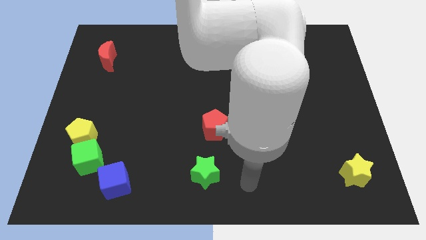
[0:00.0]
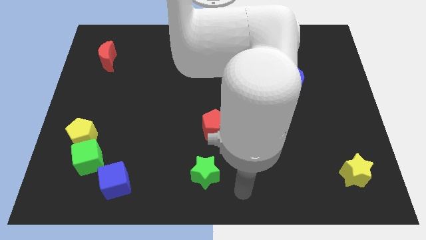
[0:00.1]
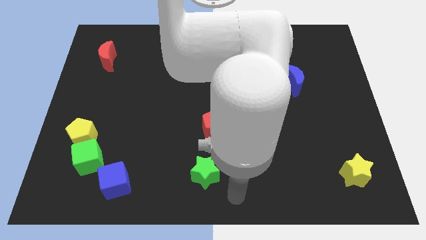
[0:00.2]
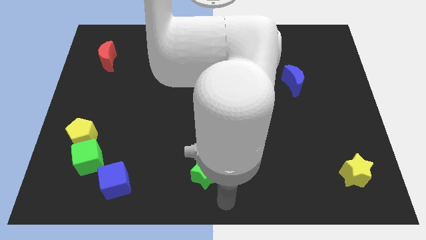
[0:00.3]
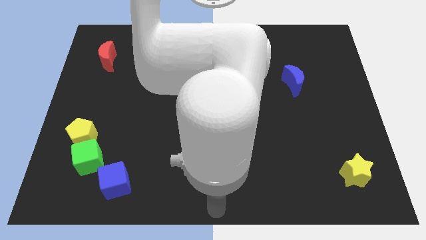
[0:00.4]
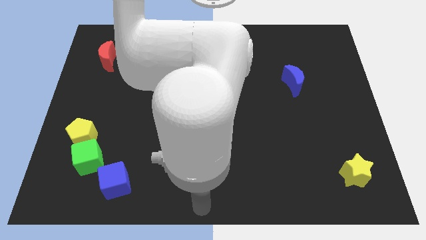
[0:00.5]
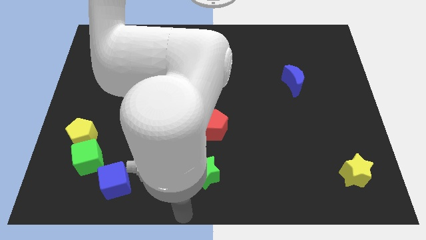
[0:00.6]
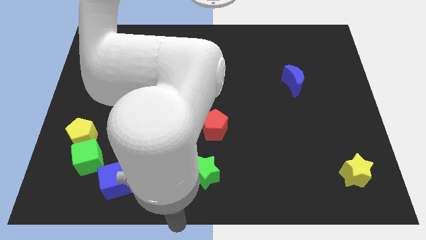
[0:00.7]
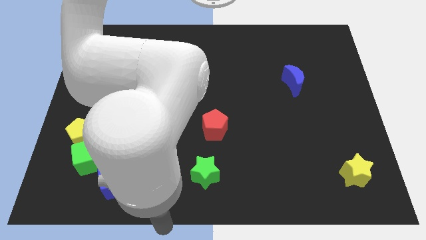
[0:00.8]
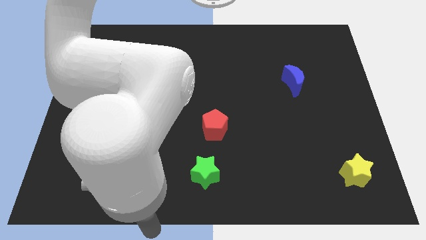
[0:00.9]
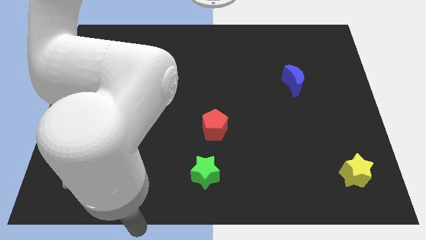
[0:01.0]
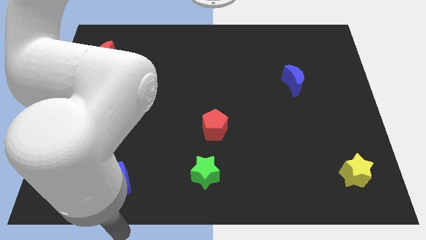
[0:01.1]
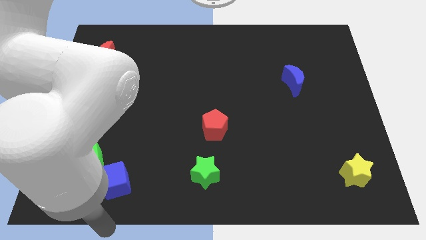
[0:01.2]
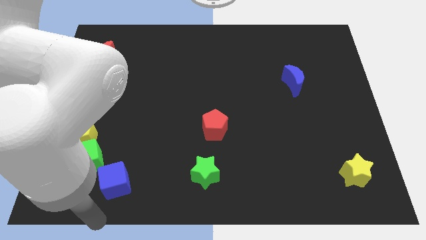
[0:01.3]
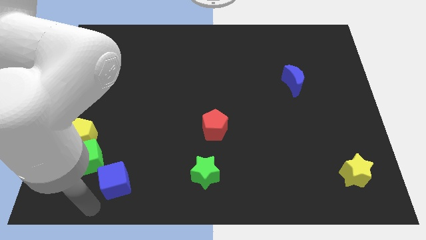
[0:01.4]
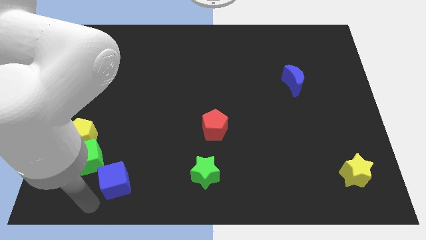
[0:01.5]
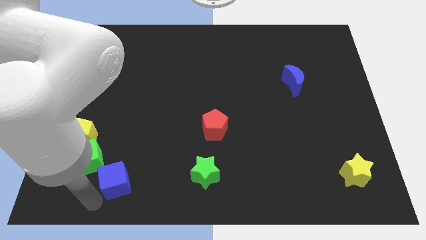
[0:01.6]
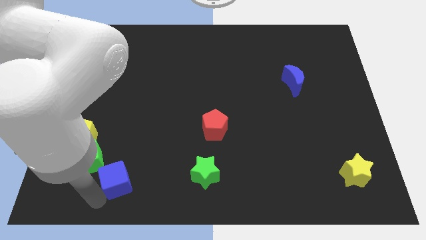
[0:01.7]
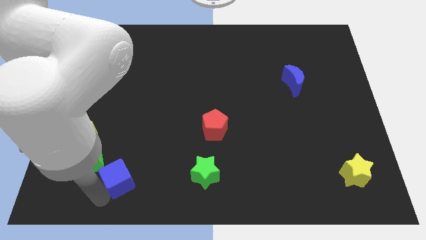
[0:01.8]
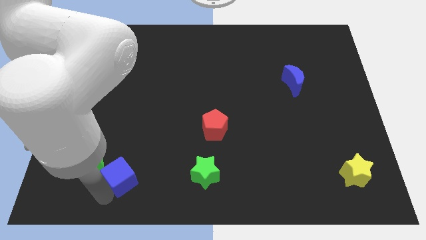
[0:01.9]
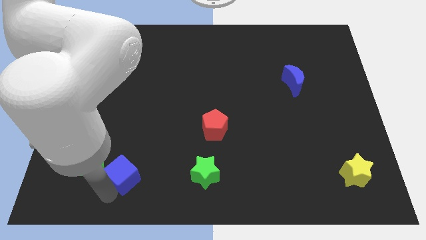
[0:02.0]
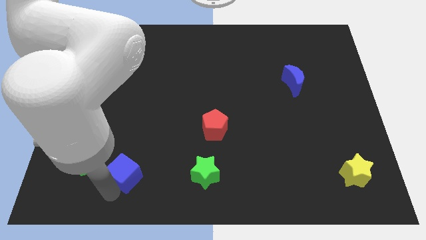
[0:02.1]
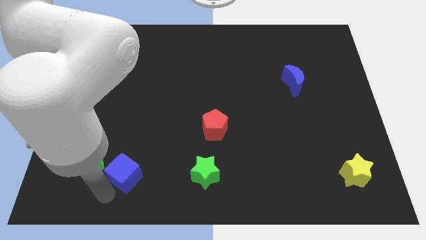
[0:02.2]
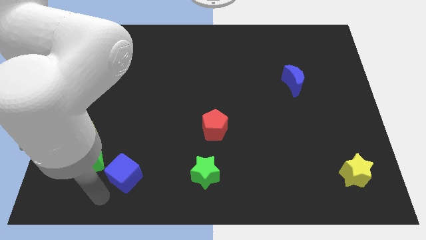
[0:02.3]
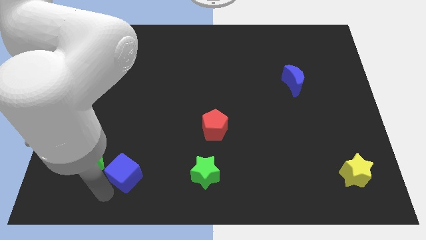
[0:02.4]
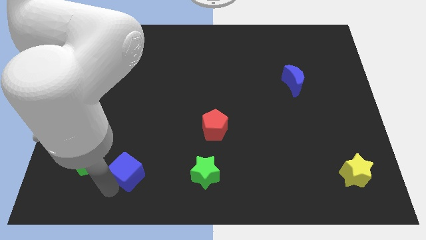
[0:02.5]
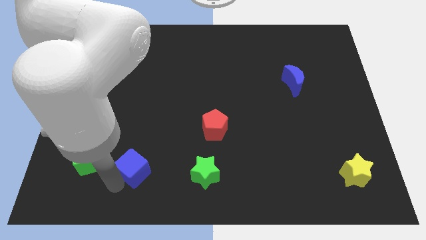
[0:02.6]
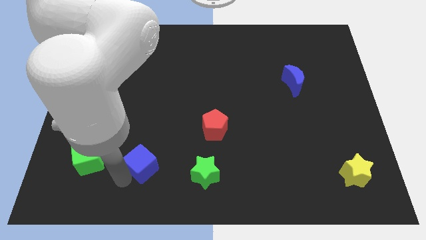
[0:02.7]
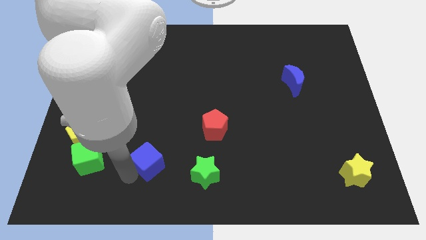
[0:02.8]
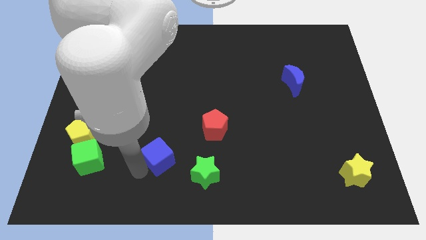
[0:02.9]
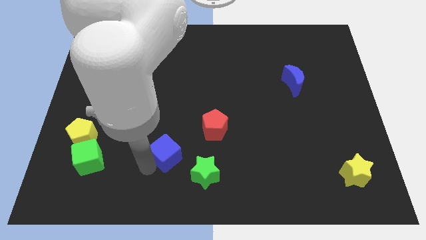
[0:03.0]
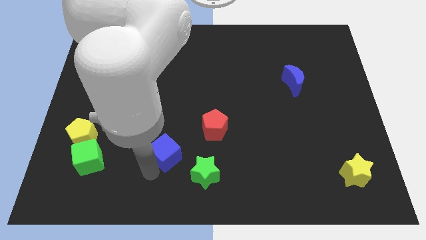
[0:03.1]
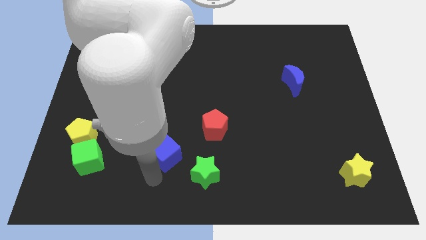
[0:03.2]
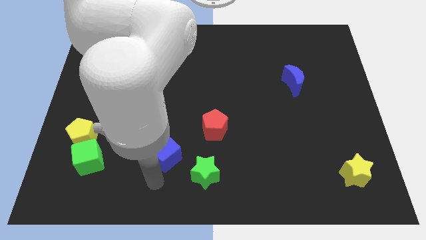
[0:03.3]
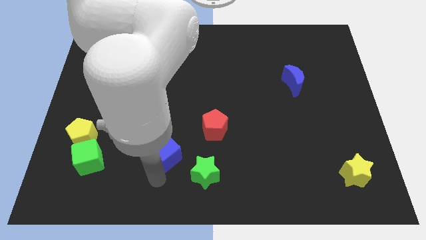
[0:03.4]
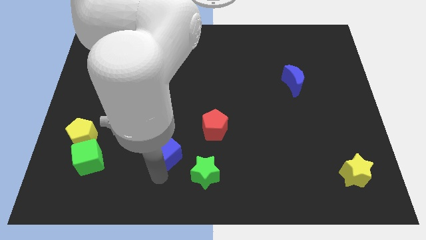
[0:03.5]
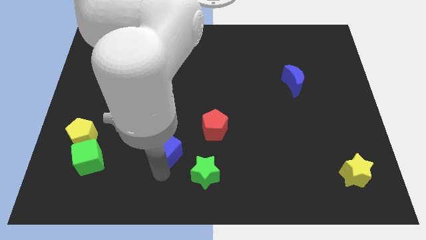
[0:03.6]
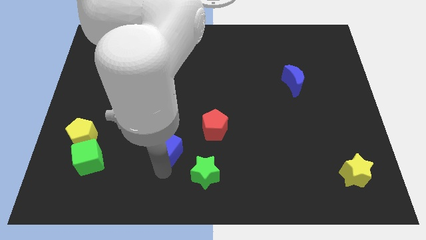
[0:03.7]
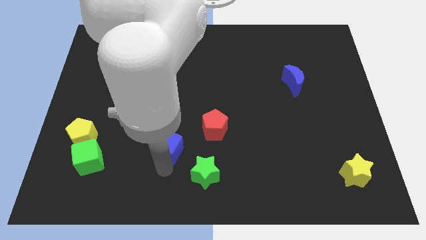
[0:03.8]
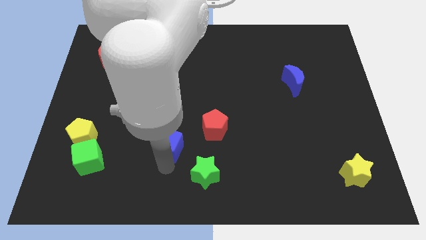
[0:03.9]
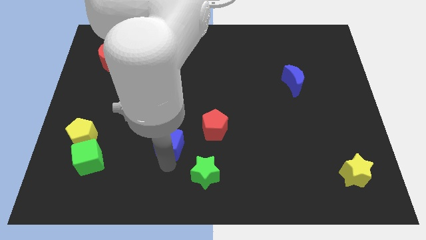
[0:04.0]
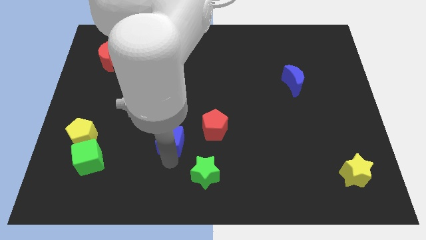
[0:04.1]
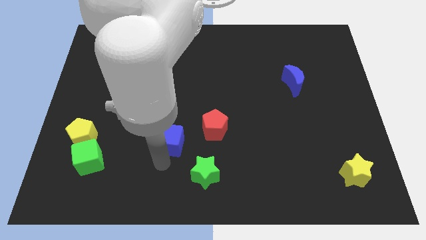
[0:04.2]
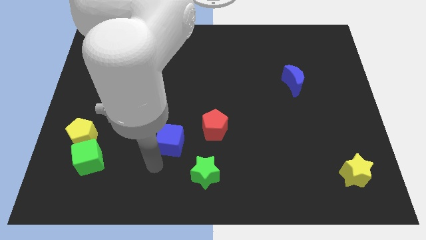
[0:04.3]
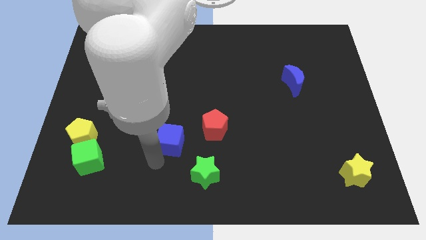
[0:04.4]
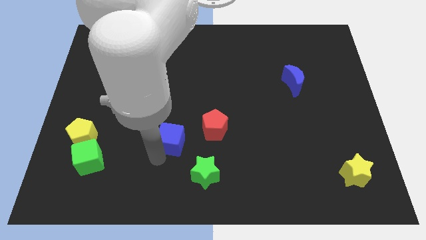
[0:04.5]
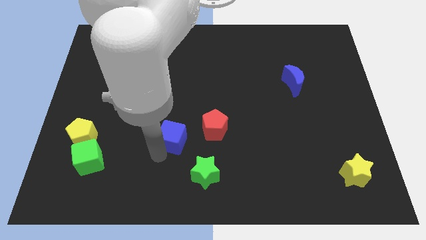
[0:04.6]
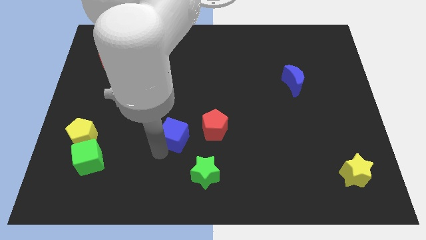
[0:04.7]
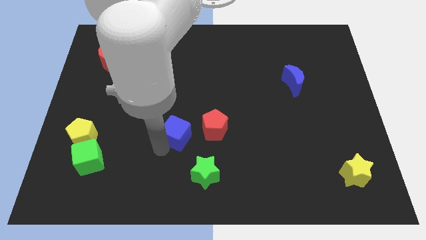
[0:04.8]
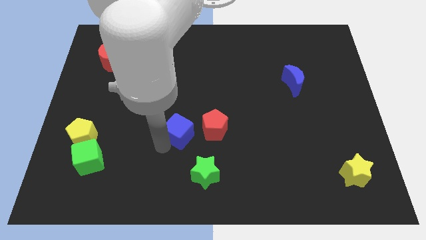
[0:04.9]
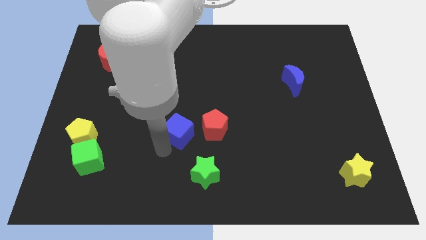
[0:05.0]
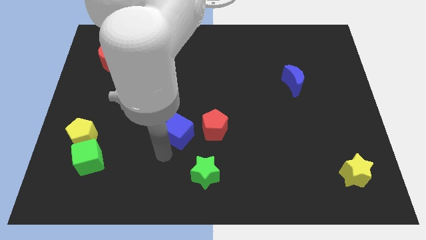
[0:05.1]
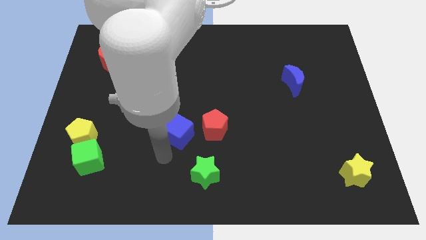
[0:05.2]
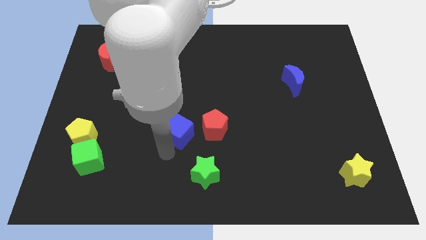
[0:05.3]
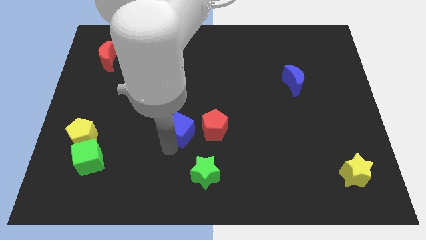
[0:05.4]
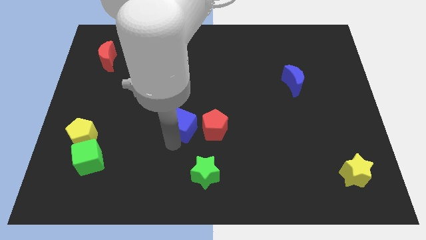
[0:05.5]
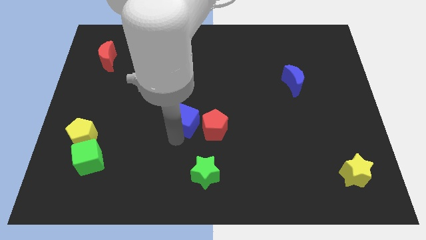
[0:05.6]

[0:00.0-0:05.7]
push the blue cube diagonally upwards and right

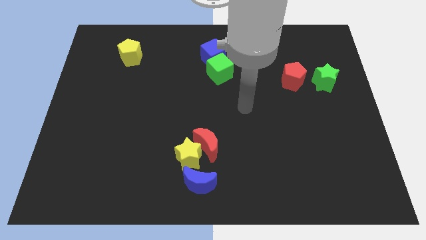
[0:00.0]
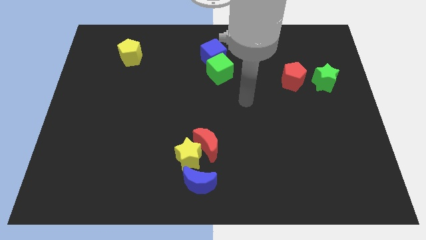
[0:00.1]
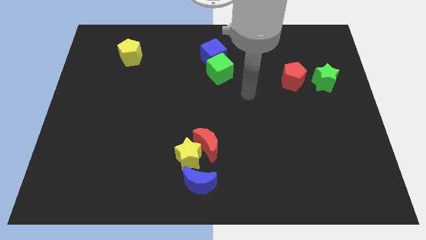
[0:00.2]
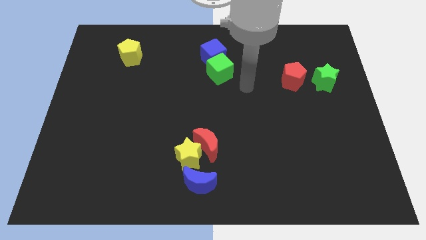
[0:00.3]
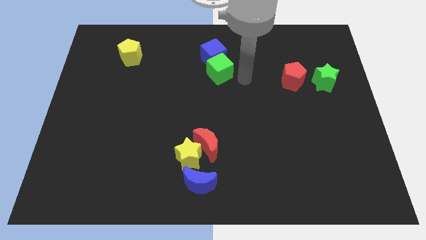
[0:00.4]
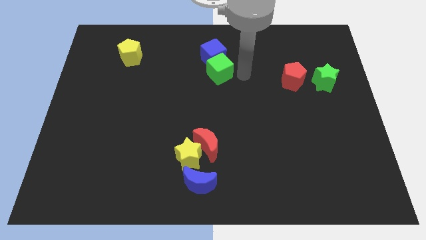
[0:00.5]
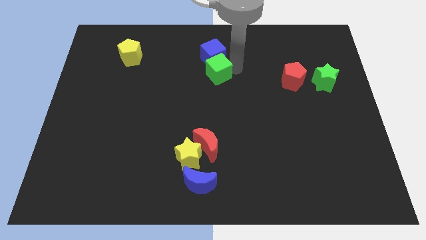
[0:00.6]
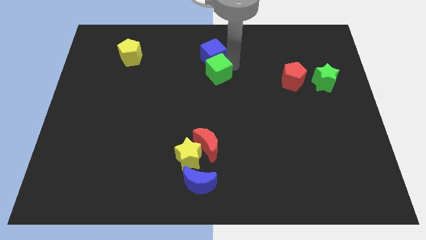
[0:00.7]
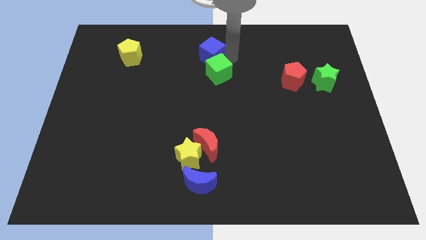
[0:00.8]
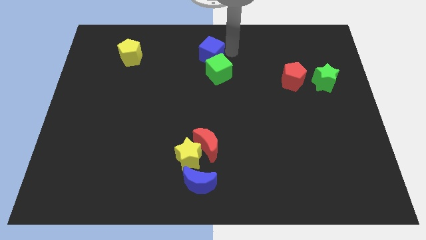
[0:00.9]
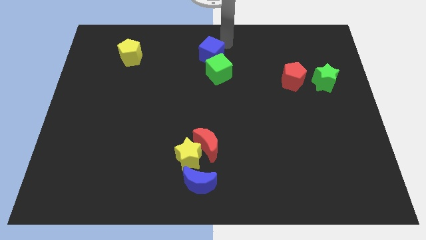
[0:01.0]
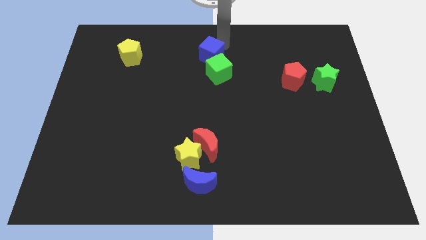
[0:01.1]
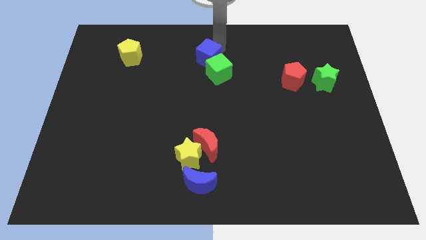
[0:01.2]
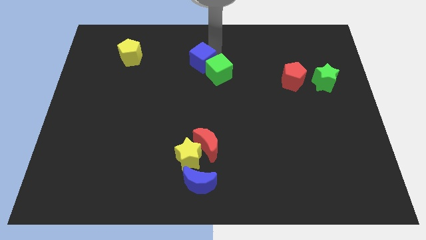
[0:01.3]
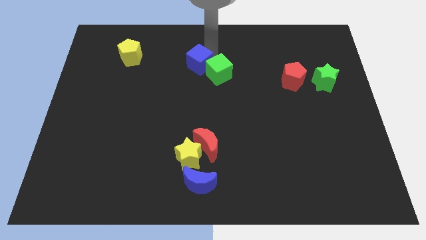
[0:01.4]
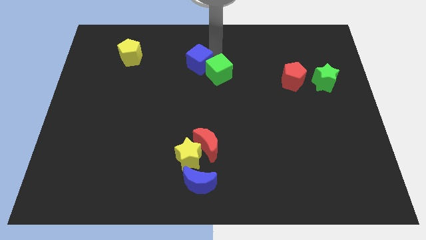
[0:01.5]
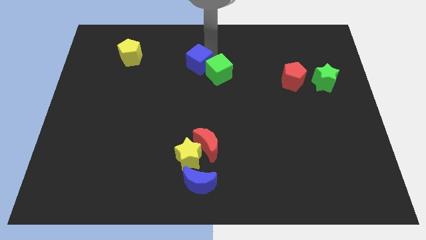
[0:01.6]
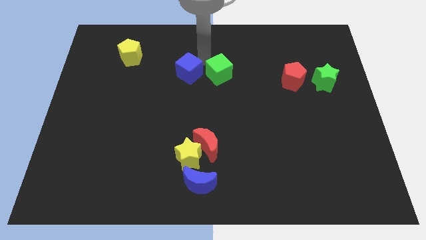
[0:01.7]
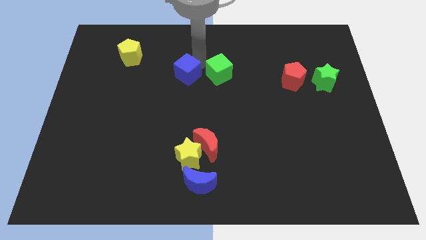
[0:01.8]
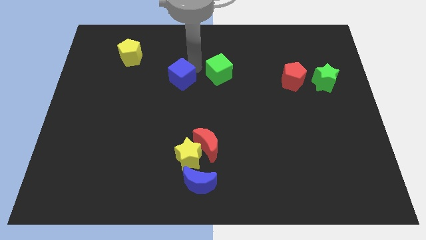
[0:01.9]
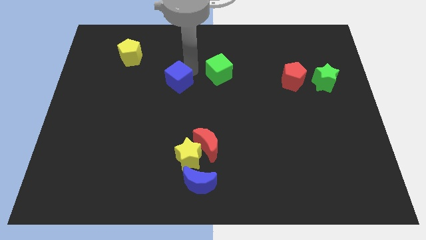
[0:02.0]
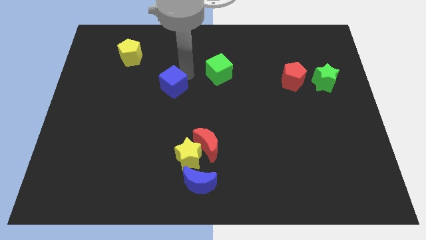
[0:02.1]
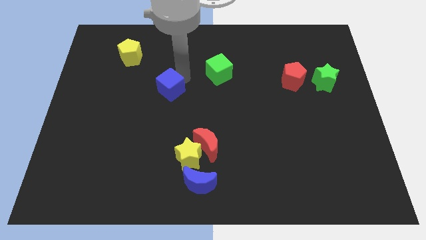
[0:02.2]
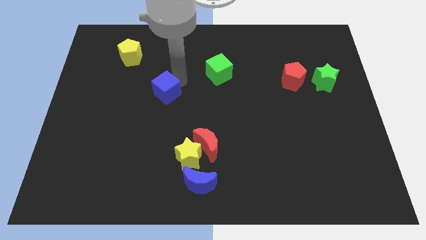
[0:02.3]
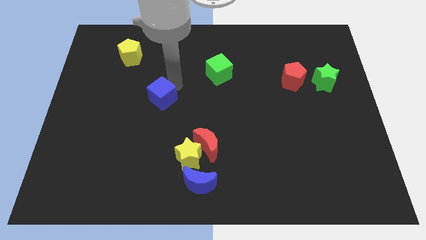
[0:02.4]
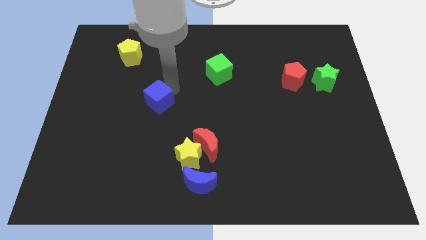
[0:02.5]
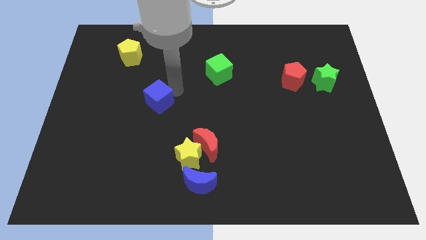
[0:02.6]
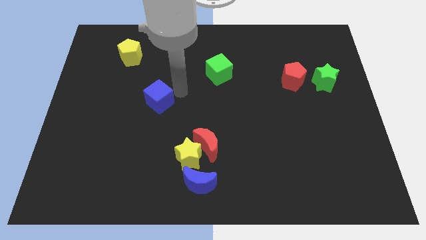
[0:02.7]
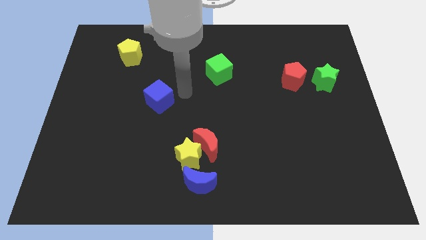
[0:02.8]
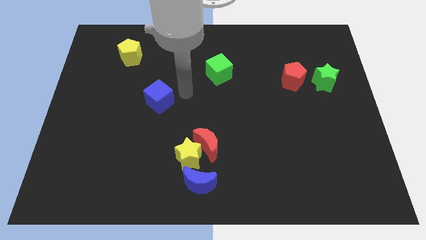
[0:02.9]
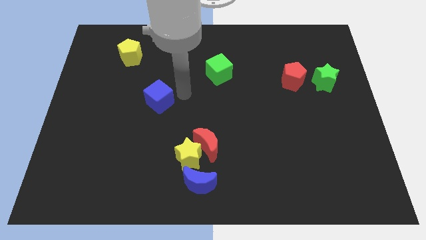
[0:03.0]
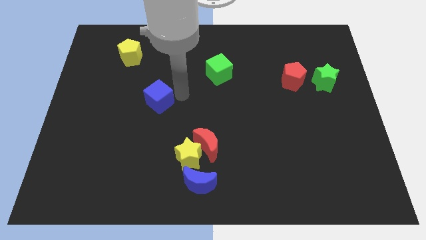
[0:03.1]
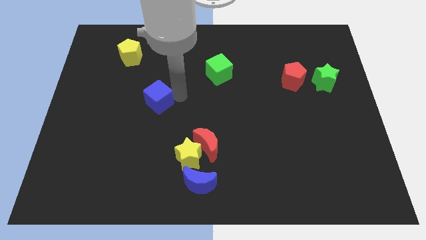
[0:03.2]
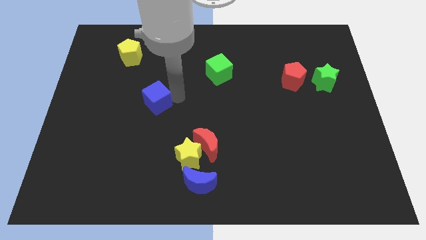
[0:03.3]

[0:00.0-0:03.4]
push the blue cube down and to the left diagonally
